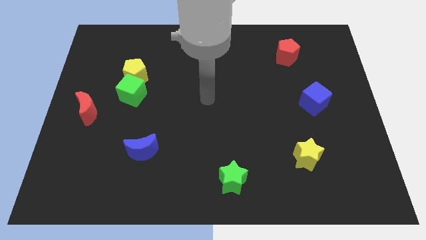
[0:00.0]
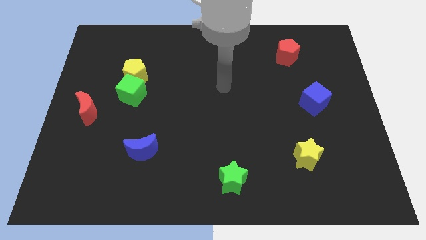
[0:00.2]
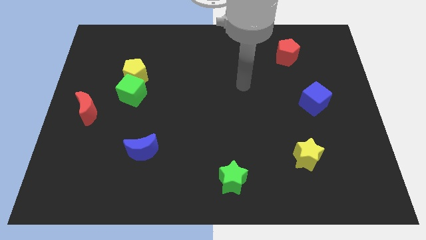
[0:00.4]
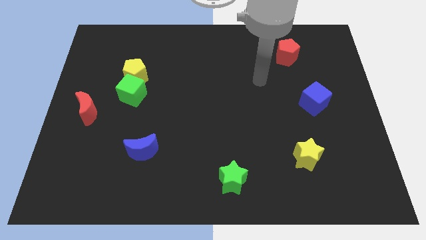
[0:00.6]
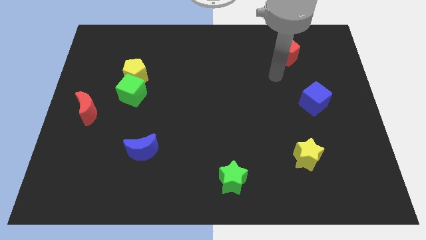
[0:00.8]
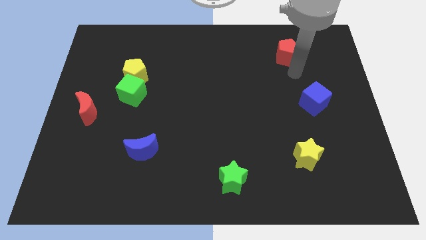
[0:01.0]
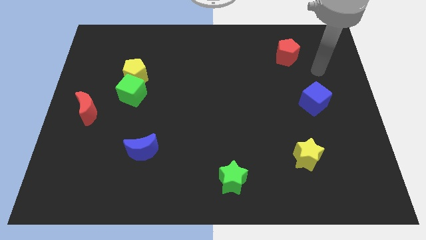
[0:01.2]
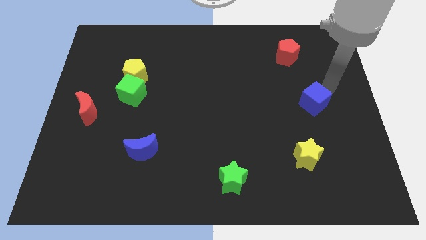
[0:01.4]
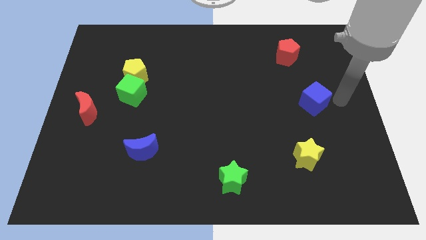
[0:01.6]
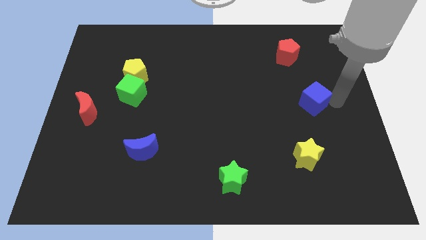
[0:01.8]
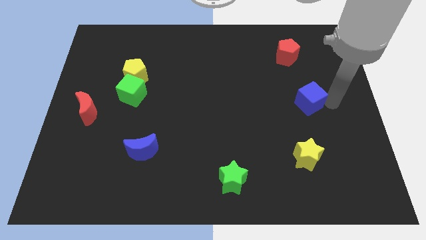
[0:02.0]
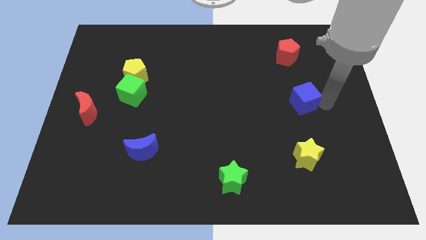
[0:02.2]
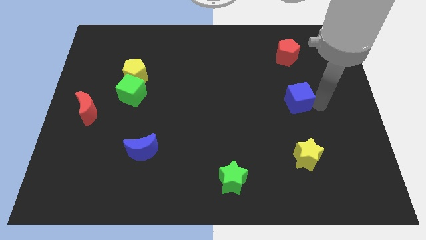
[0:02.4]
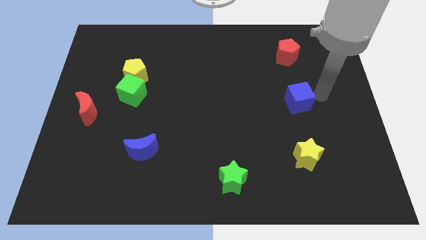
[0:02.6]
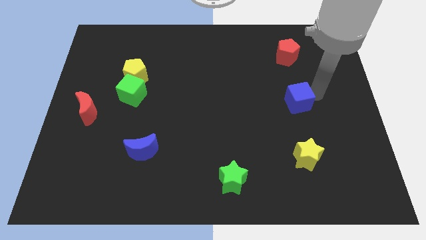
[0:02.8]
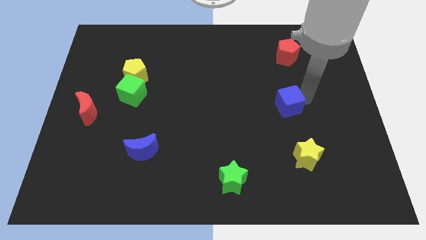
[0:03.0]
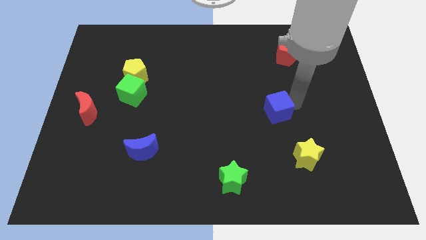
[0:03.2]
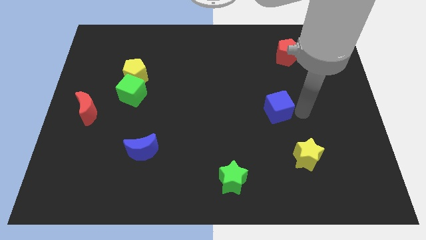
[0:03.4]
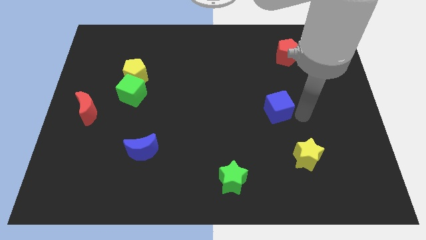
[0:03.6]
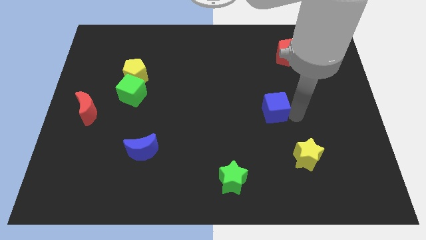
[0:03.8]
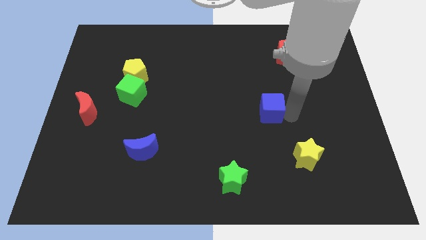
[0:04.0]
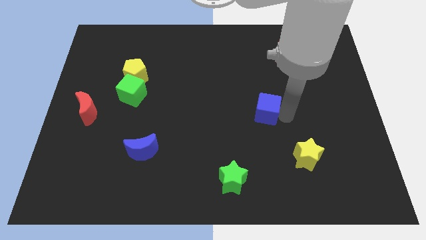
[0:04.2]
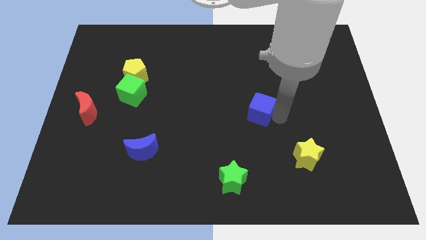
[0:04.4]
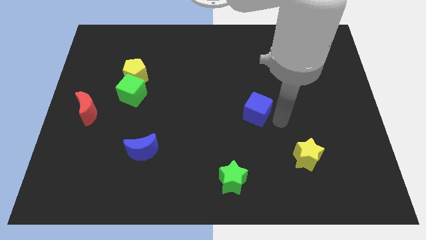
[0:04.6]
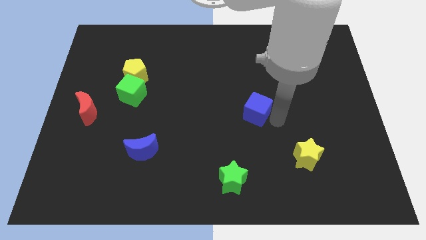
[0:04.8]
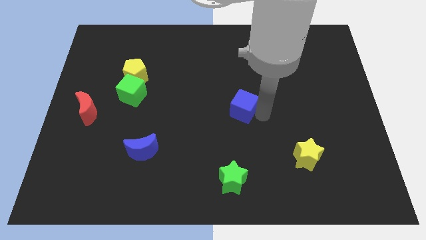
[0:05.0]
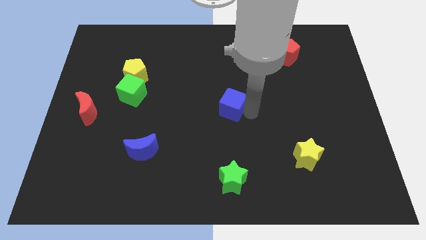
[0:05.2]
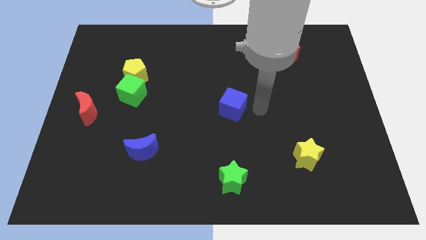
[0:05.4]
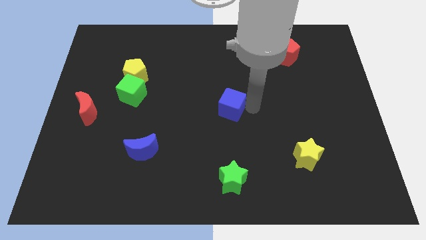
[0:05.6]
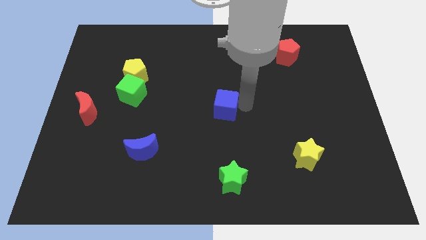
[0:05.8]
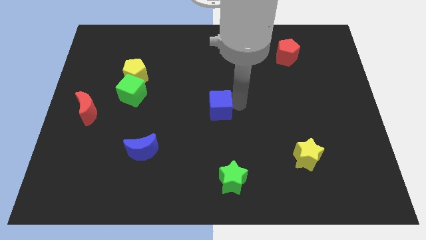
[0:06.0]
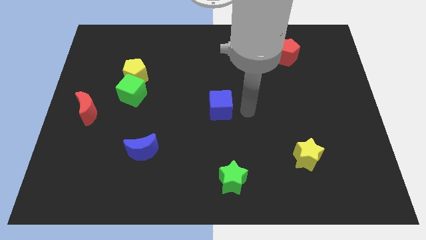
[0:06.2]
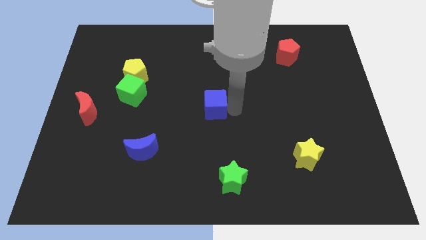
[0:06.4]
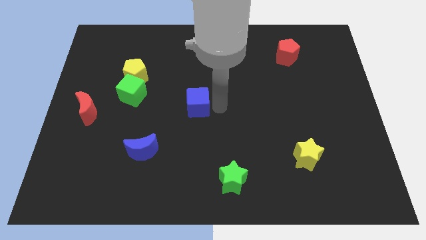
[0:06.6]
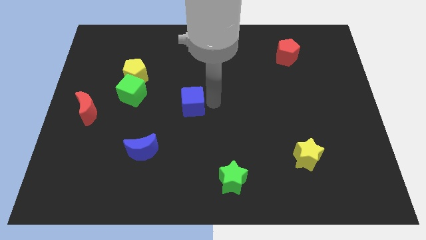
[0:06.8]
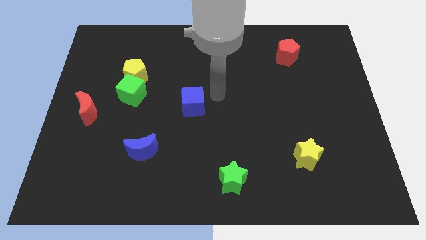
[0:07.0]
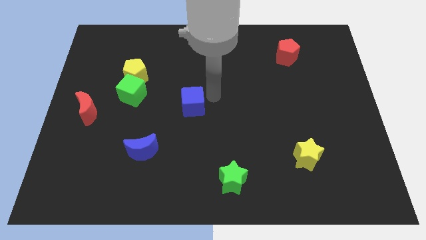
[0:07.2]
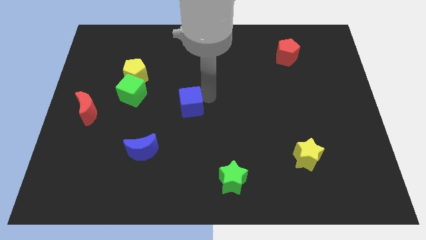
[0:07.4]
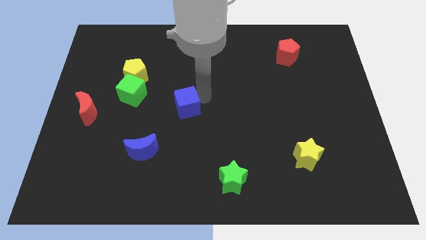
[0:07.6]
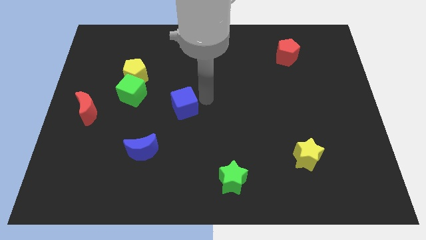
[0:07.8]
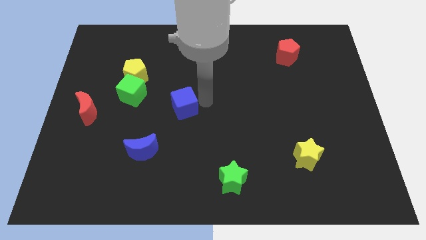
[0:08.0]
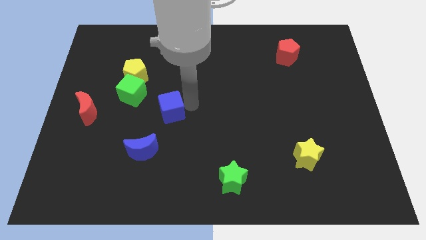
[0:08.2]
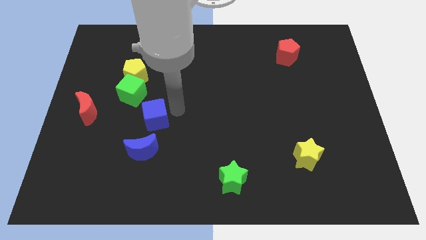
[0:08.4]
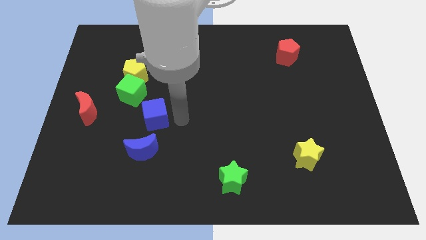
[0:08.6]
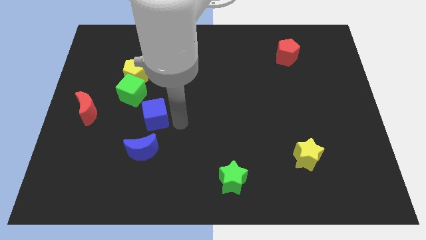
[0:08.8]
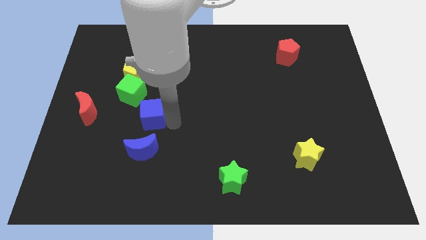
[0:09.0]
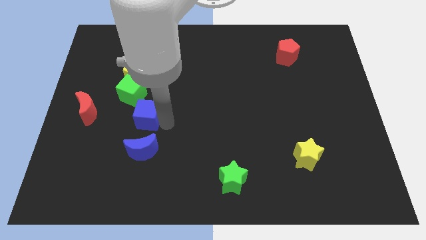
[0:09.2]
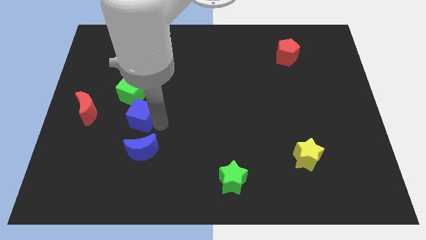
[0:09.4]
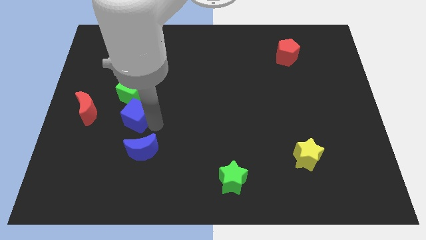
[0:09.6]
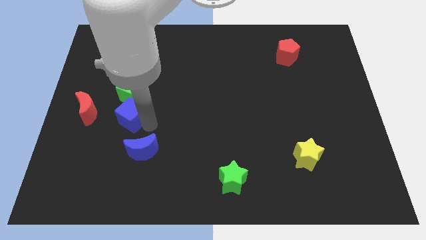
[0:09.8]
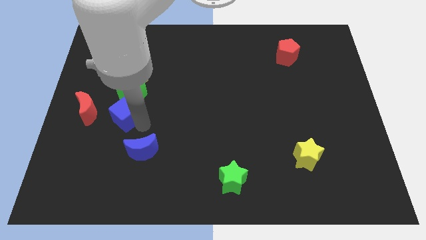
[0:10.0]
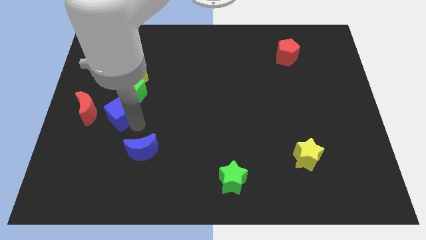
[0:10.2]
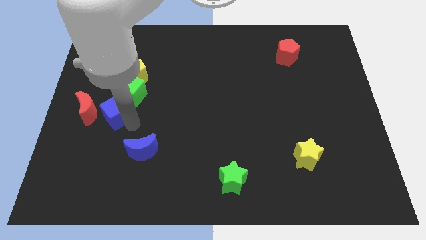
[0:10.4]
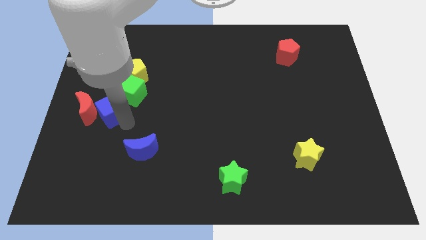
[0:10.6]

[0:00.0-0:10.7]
slide the blue cube to the top right side of the red moon

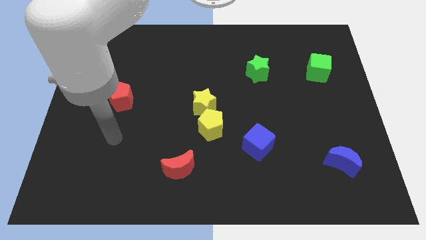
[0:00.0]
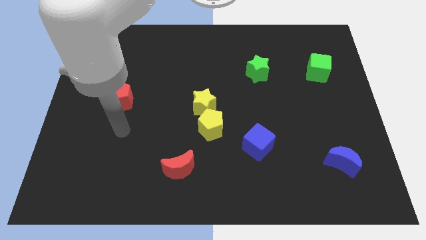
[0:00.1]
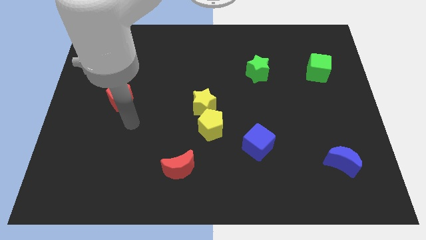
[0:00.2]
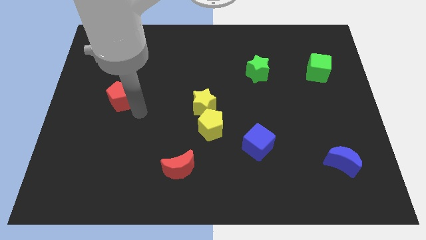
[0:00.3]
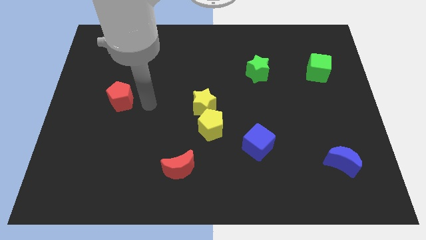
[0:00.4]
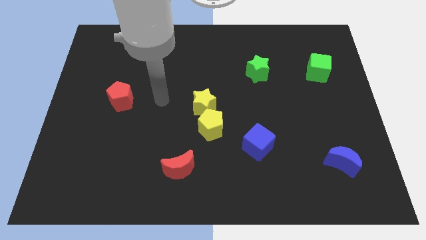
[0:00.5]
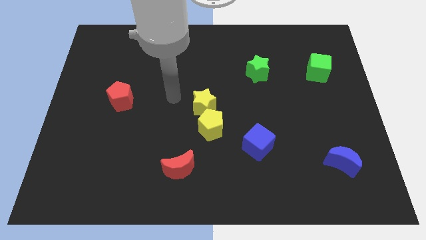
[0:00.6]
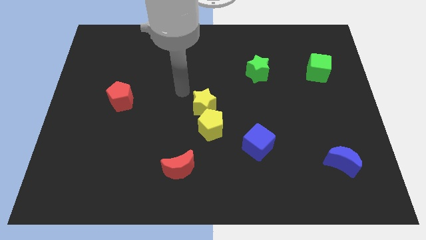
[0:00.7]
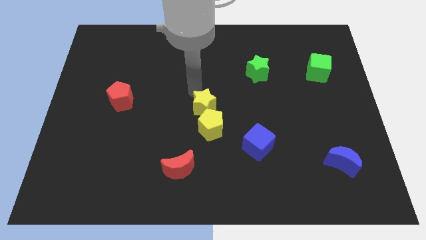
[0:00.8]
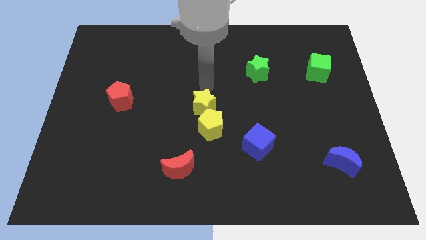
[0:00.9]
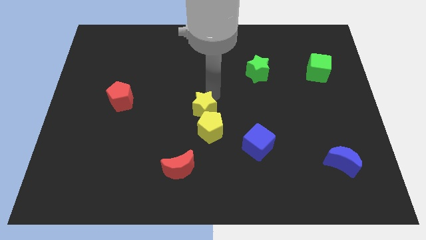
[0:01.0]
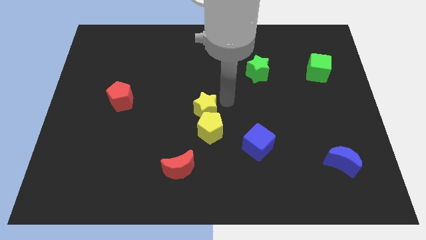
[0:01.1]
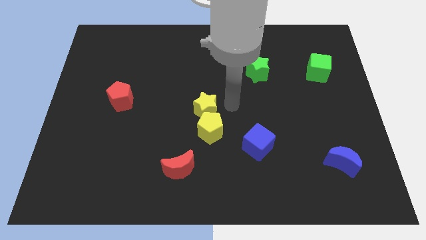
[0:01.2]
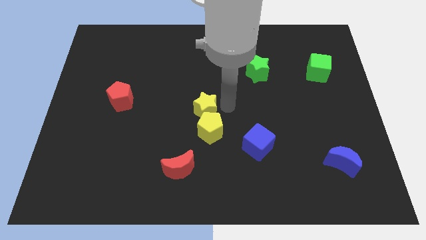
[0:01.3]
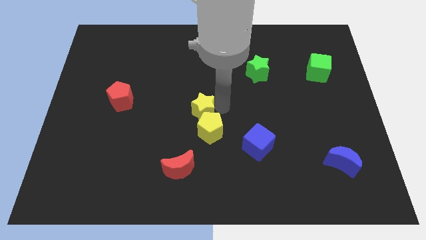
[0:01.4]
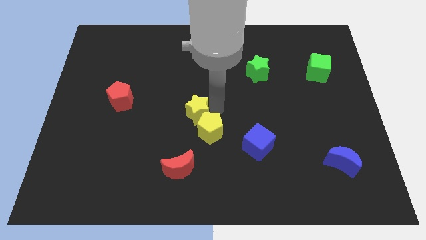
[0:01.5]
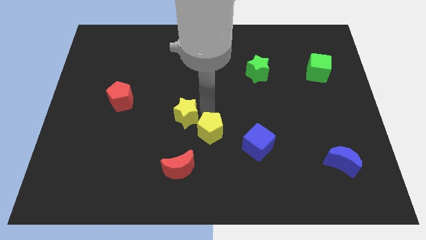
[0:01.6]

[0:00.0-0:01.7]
move the yellow star to the left of the yellow pentagon

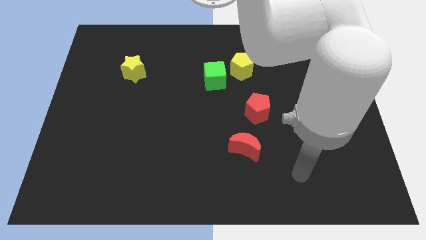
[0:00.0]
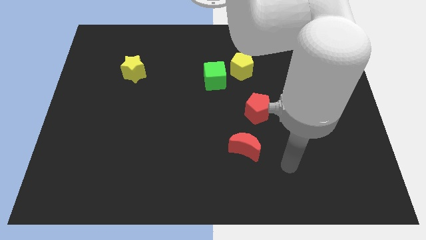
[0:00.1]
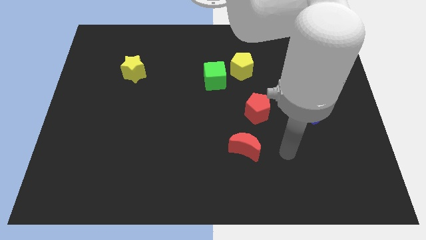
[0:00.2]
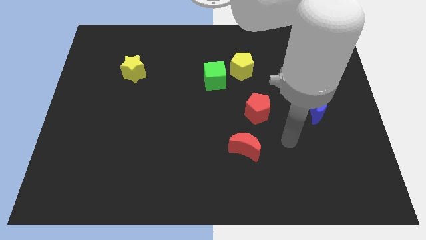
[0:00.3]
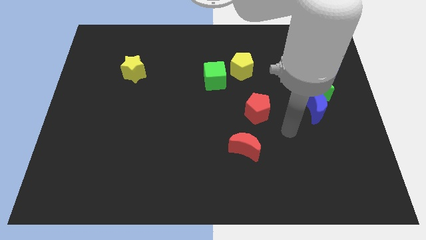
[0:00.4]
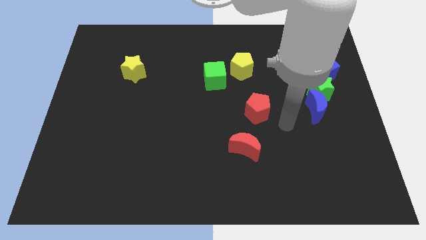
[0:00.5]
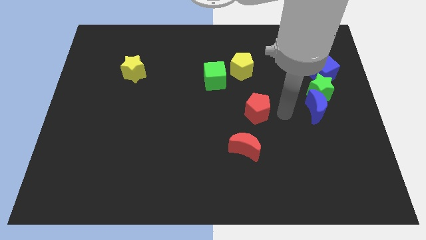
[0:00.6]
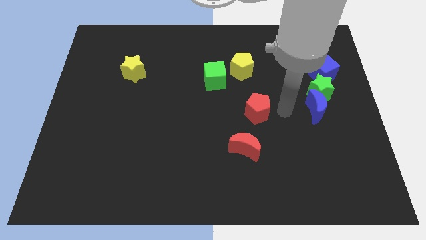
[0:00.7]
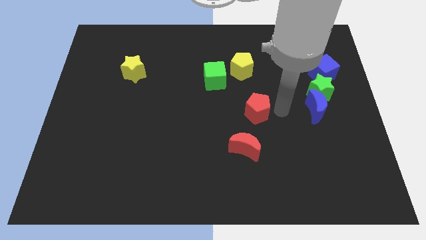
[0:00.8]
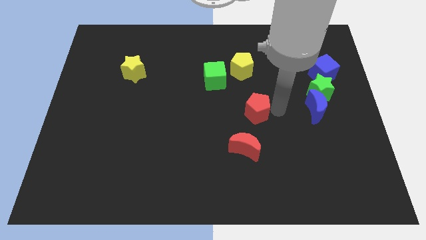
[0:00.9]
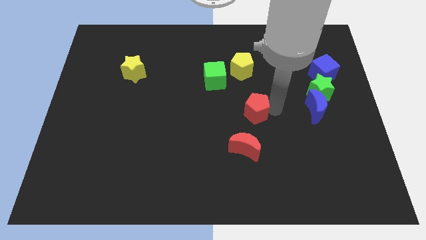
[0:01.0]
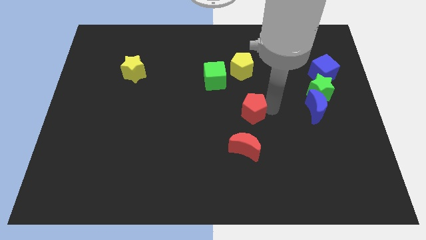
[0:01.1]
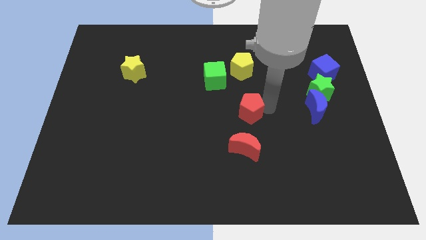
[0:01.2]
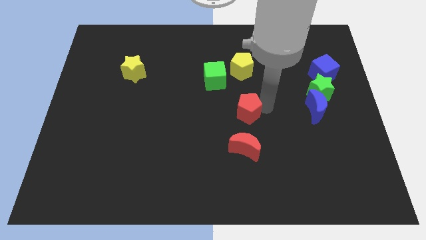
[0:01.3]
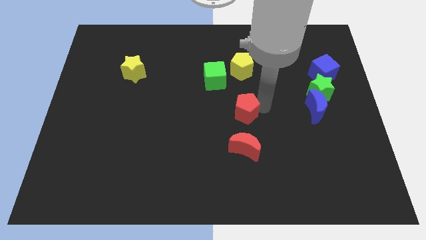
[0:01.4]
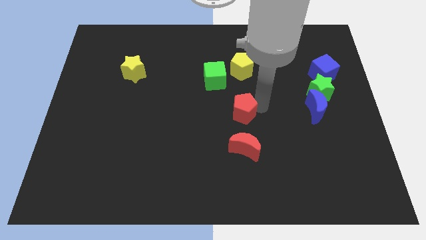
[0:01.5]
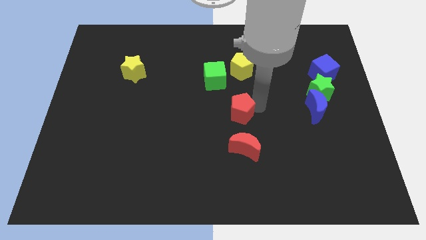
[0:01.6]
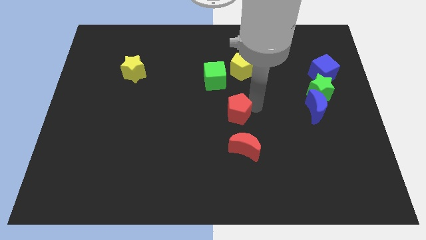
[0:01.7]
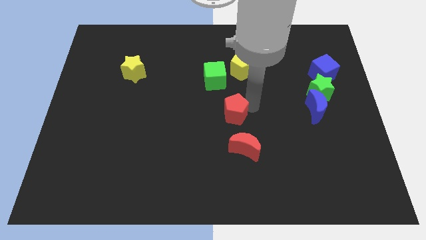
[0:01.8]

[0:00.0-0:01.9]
put the red pentagon below the green cube
